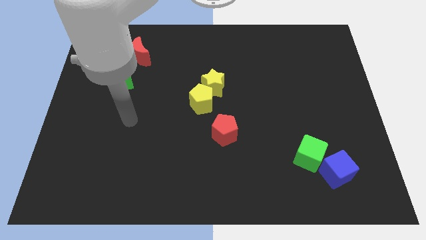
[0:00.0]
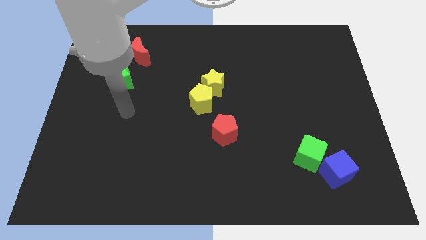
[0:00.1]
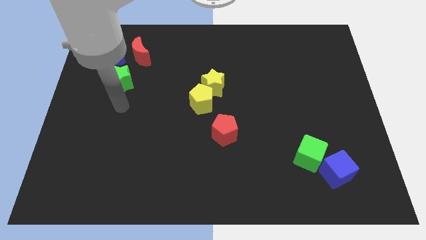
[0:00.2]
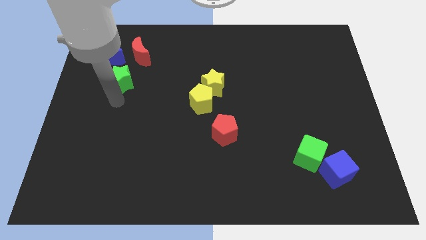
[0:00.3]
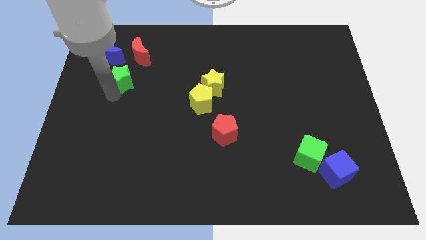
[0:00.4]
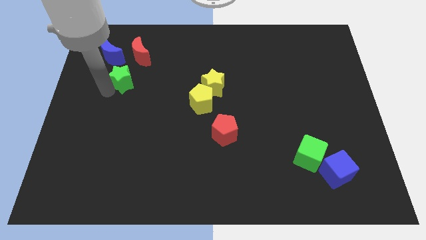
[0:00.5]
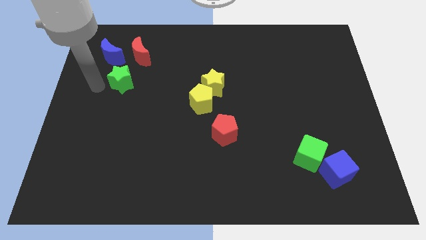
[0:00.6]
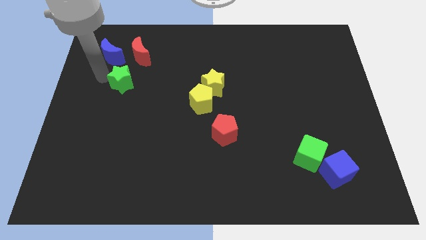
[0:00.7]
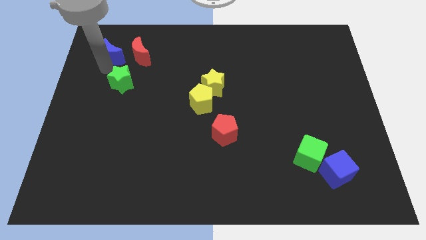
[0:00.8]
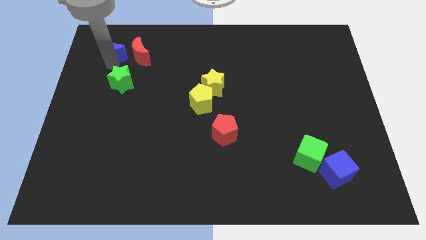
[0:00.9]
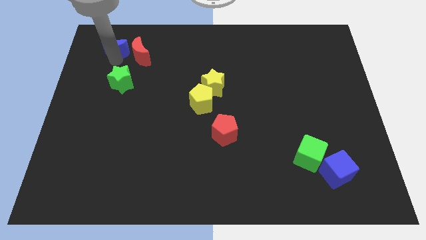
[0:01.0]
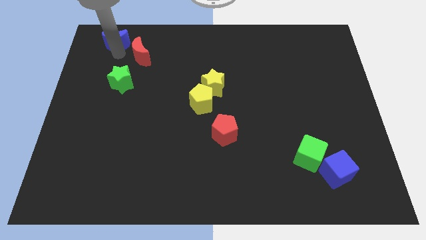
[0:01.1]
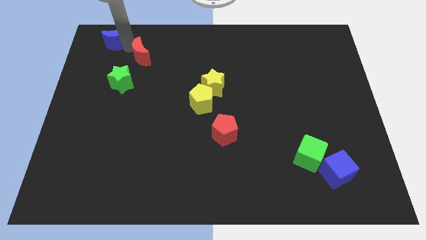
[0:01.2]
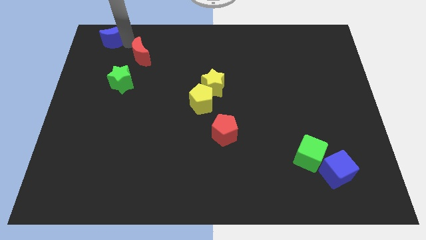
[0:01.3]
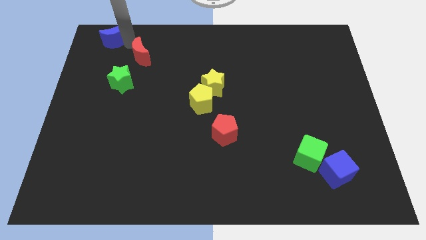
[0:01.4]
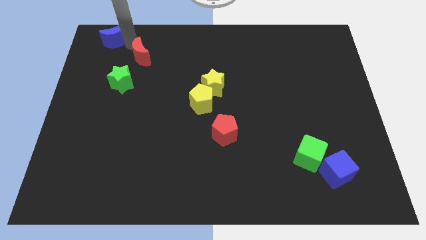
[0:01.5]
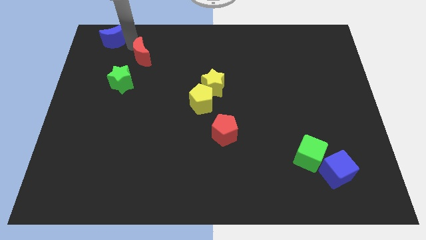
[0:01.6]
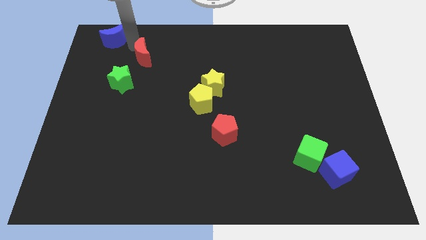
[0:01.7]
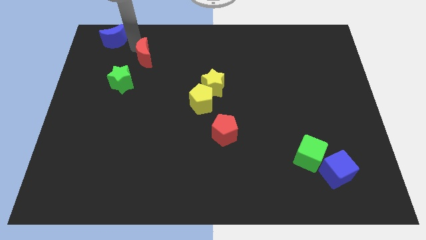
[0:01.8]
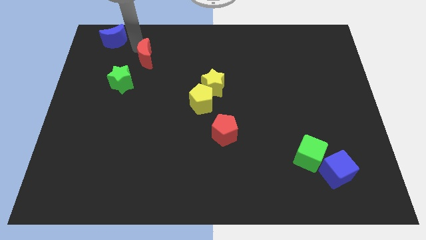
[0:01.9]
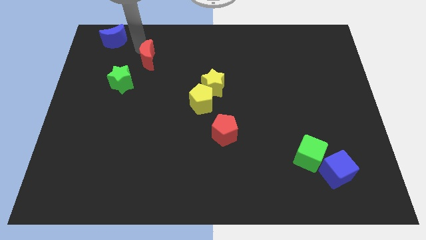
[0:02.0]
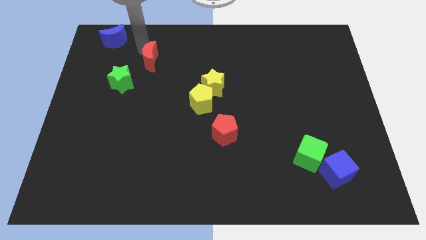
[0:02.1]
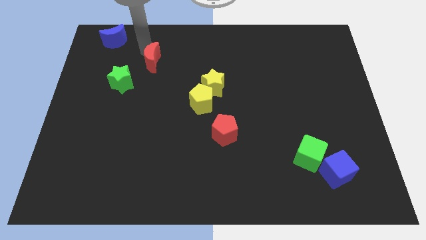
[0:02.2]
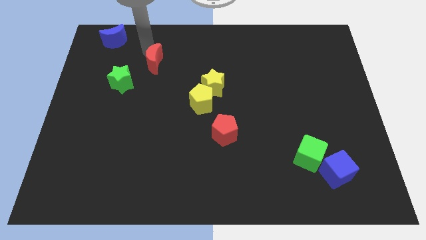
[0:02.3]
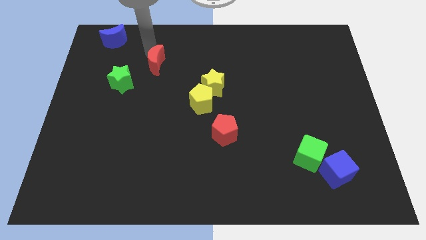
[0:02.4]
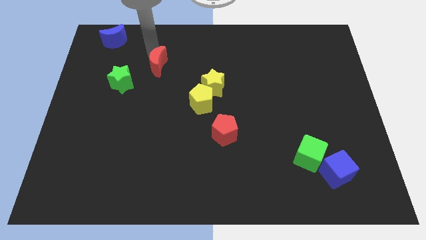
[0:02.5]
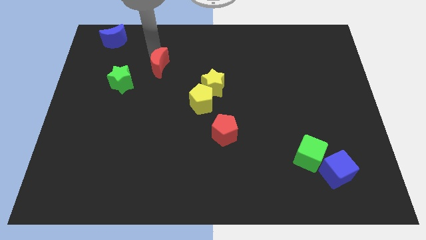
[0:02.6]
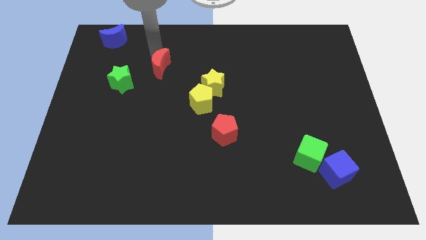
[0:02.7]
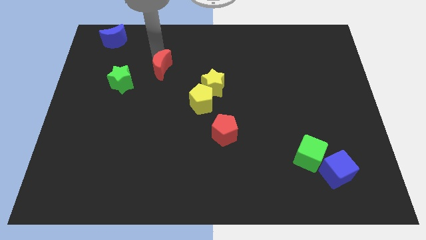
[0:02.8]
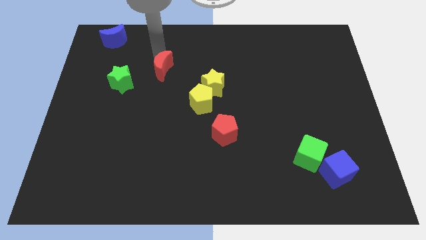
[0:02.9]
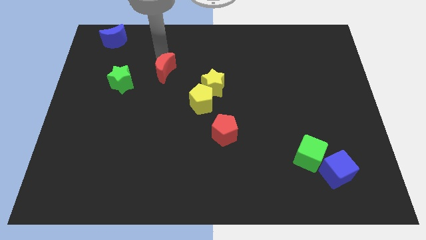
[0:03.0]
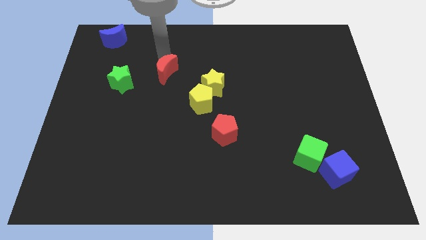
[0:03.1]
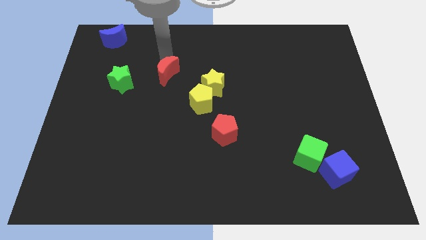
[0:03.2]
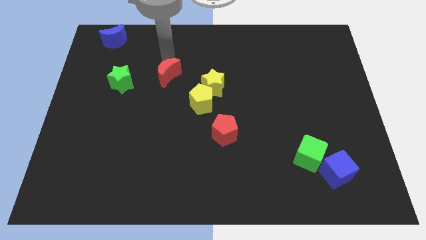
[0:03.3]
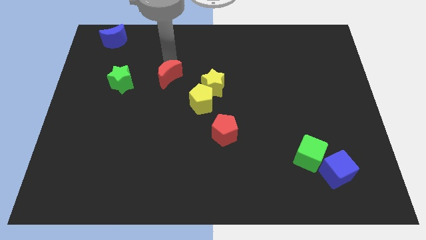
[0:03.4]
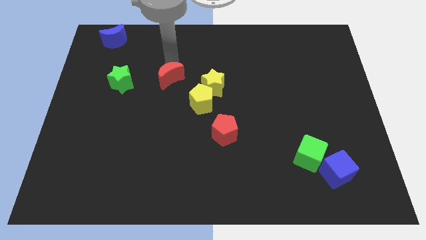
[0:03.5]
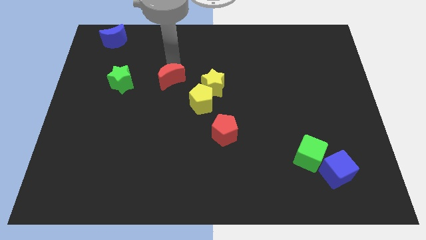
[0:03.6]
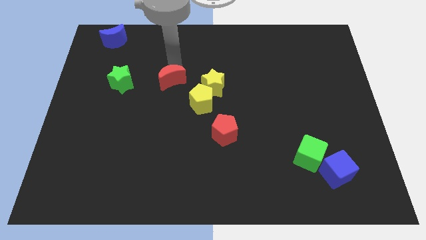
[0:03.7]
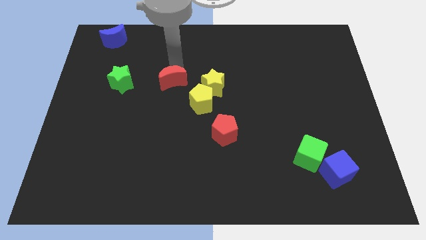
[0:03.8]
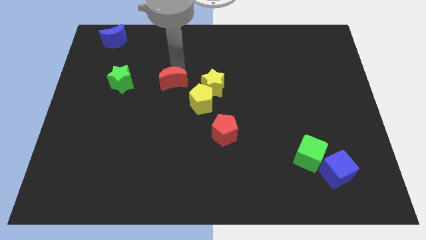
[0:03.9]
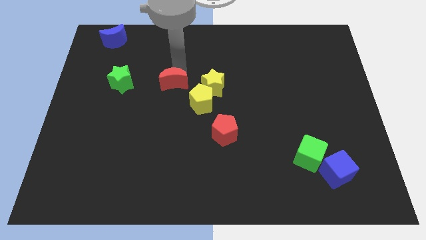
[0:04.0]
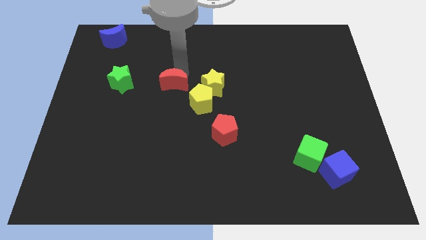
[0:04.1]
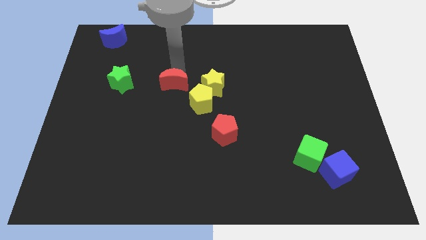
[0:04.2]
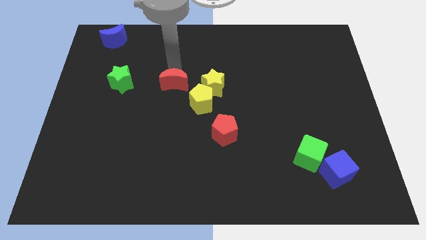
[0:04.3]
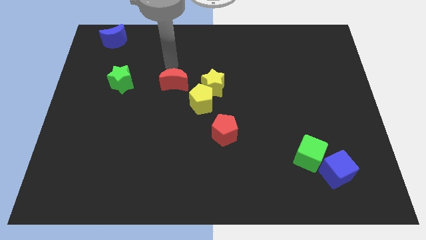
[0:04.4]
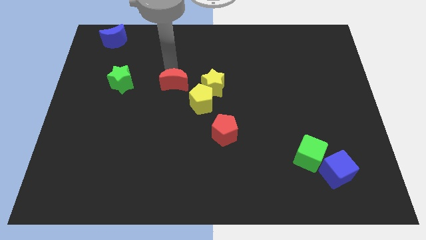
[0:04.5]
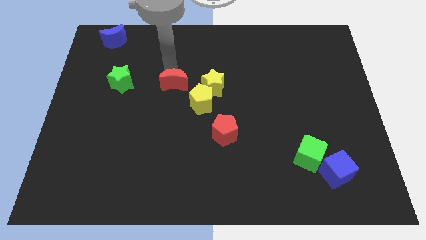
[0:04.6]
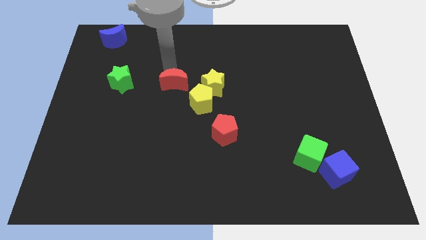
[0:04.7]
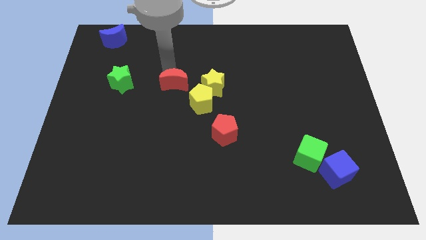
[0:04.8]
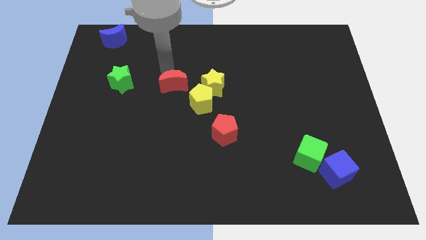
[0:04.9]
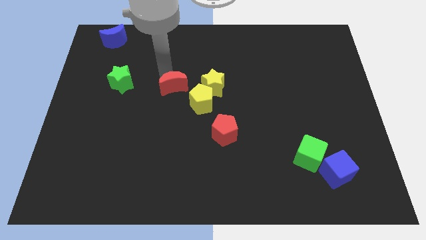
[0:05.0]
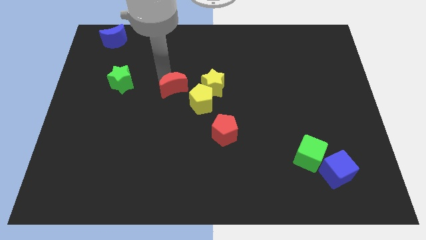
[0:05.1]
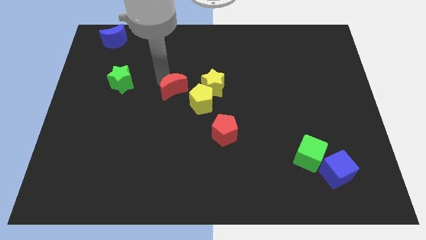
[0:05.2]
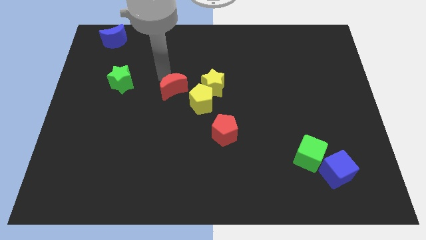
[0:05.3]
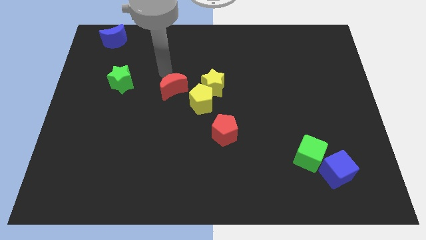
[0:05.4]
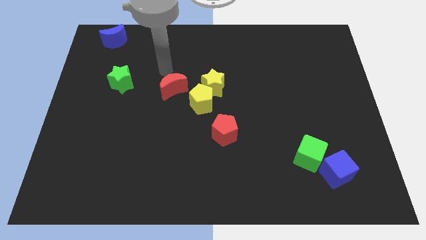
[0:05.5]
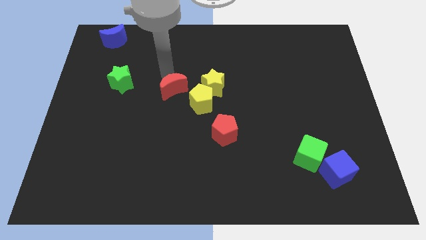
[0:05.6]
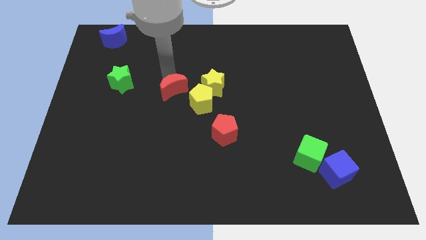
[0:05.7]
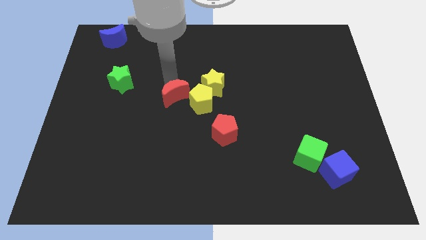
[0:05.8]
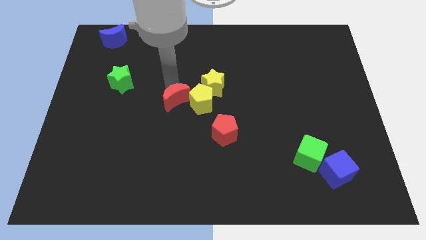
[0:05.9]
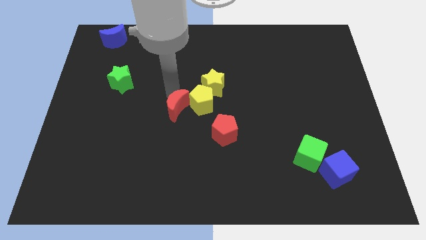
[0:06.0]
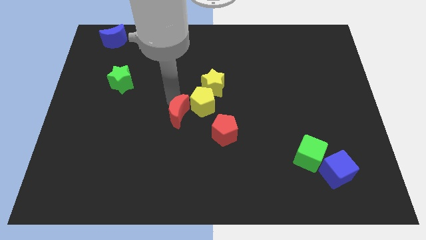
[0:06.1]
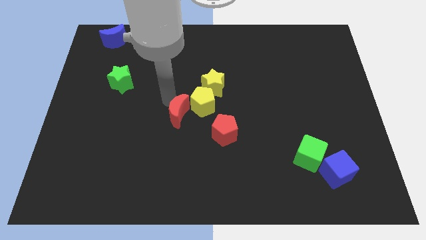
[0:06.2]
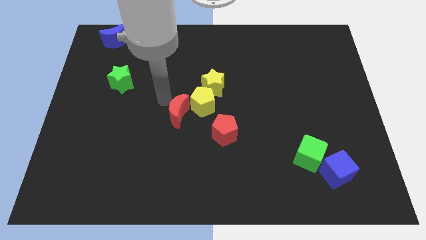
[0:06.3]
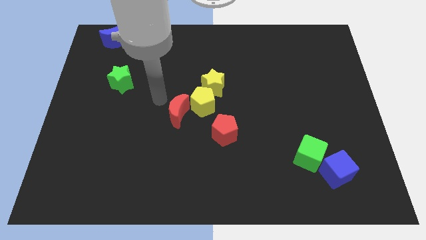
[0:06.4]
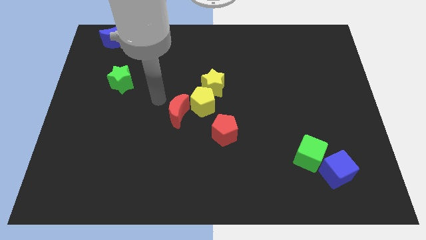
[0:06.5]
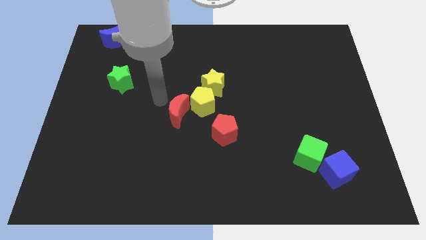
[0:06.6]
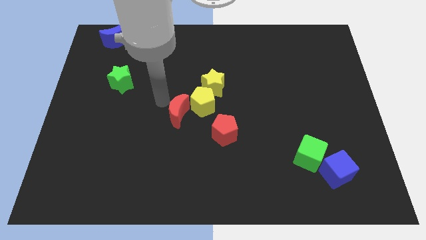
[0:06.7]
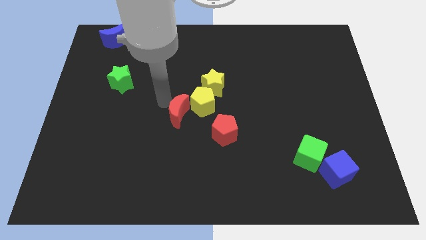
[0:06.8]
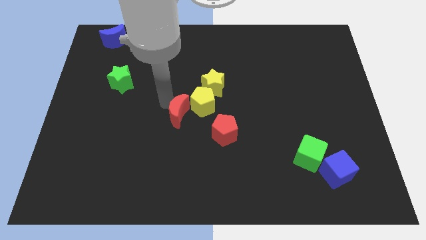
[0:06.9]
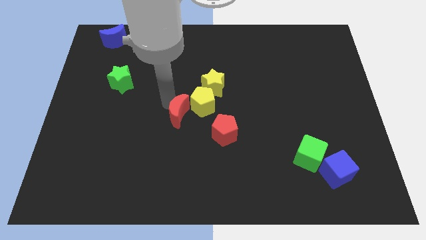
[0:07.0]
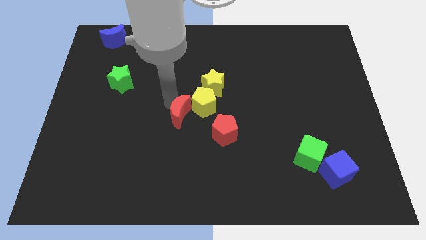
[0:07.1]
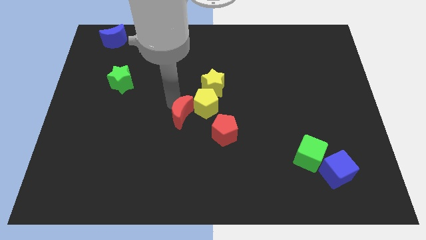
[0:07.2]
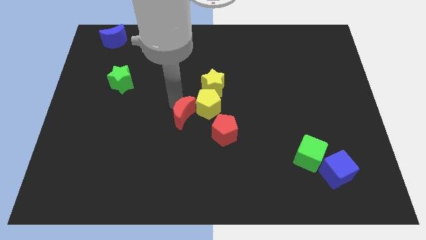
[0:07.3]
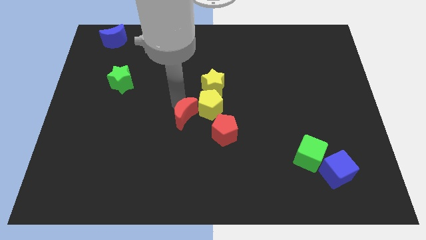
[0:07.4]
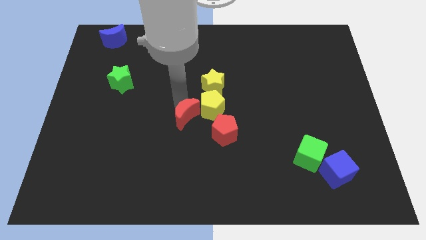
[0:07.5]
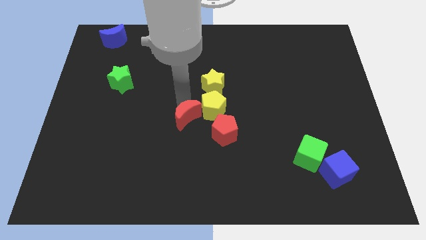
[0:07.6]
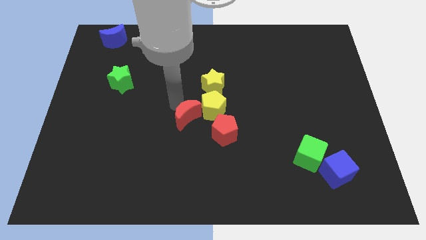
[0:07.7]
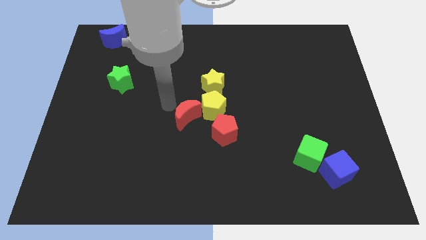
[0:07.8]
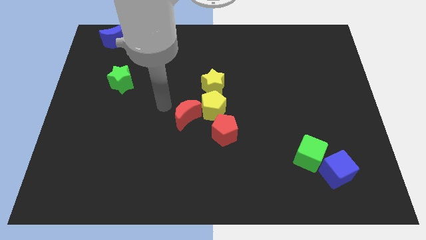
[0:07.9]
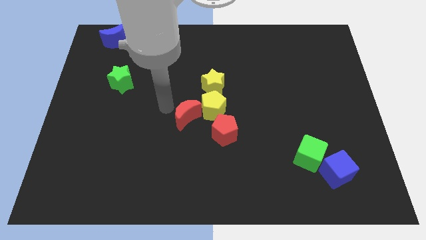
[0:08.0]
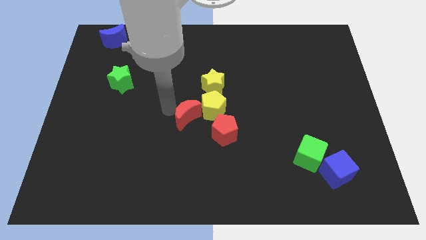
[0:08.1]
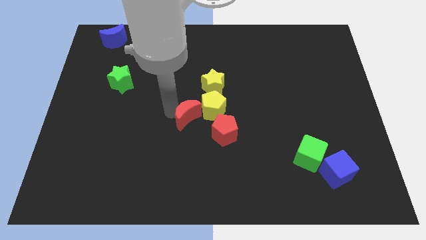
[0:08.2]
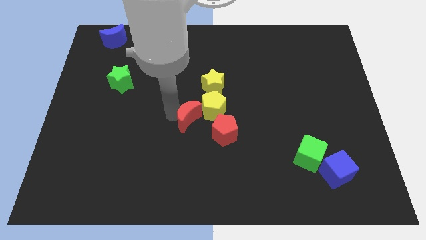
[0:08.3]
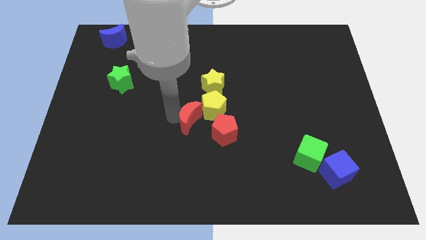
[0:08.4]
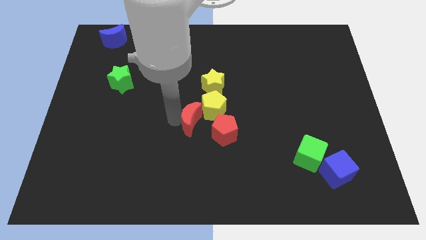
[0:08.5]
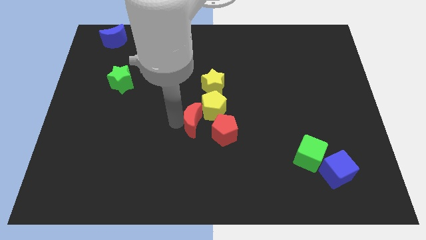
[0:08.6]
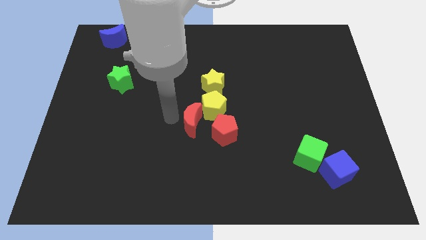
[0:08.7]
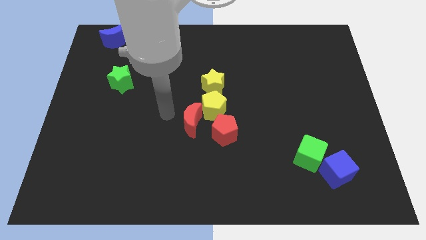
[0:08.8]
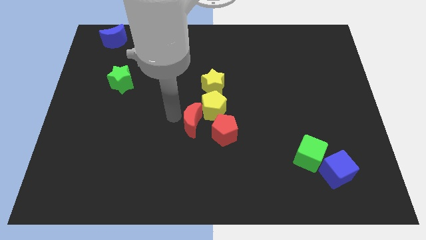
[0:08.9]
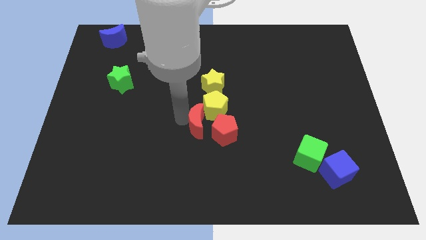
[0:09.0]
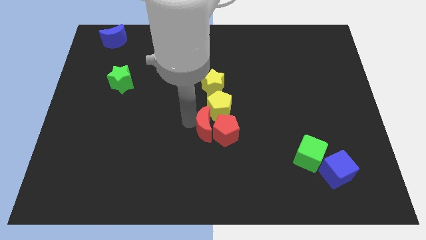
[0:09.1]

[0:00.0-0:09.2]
slide the red moon next to the red pentagon
